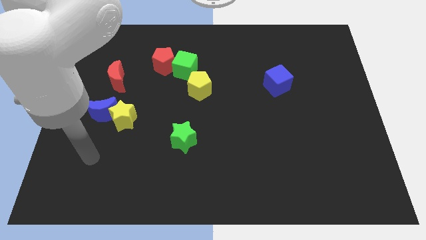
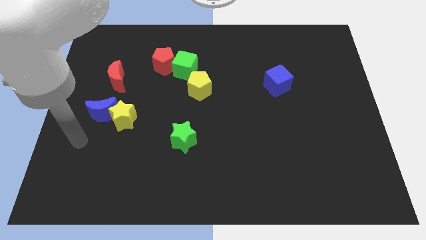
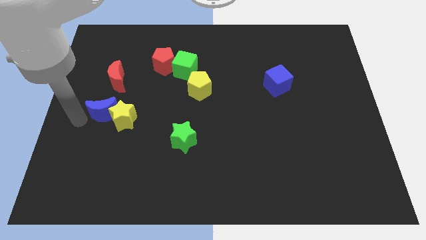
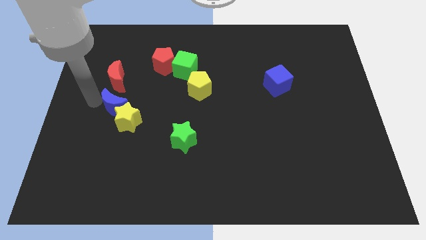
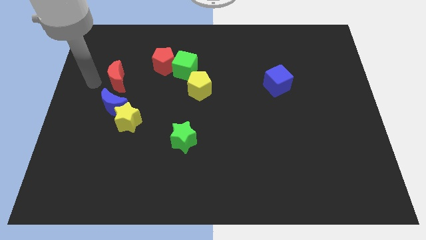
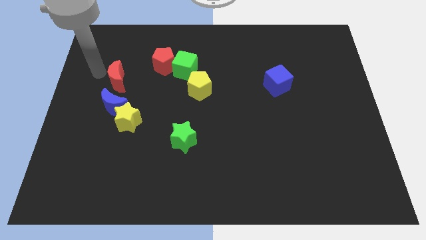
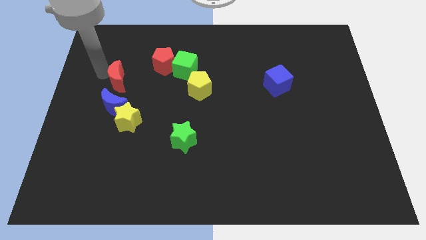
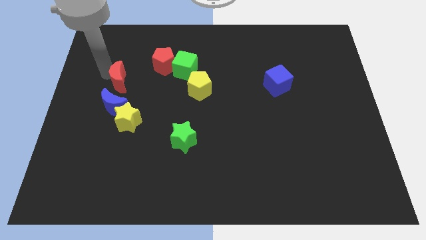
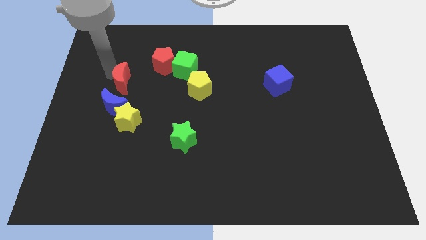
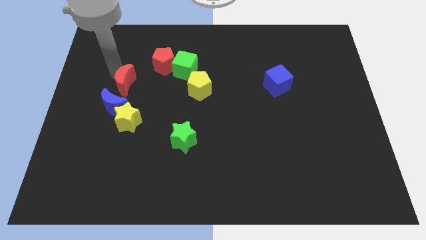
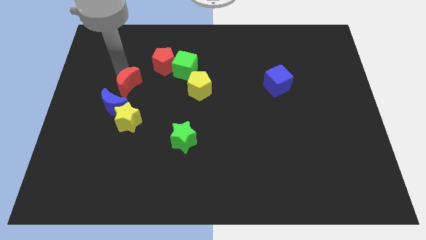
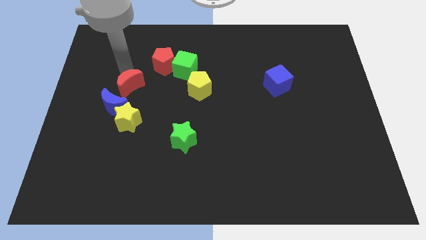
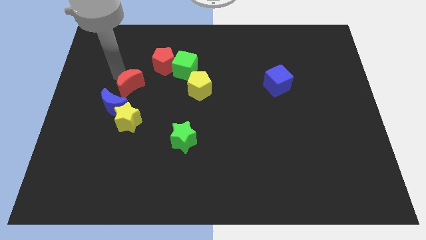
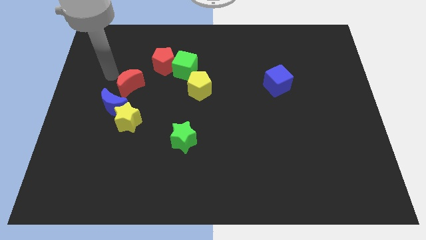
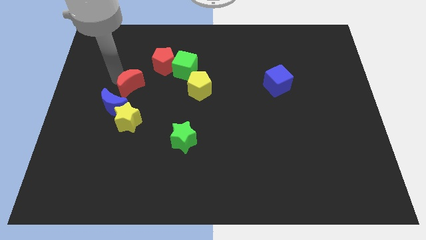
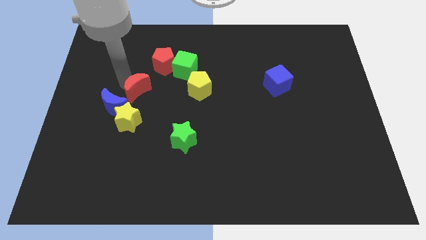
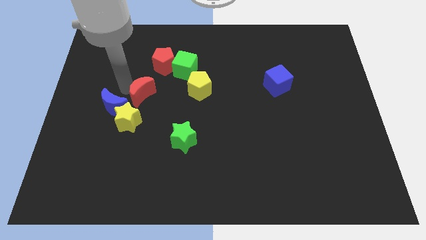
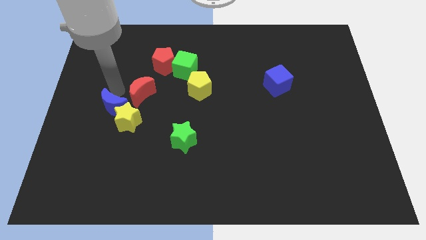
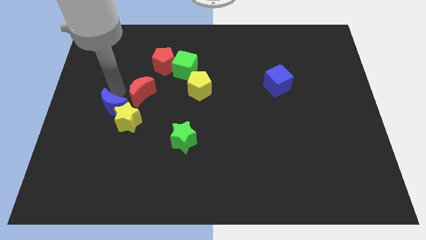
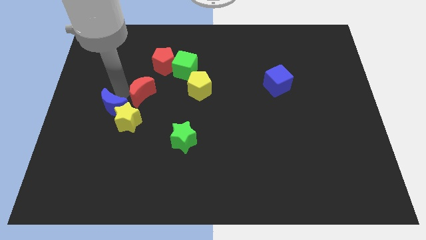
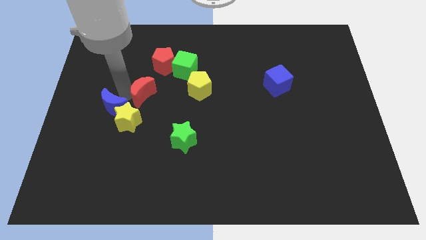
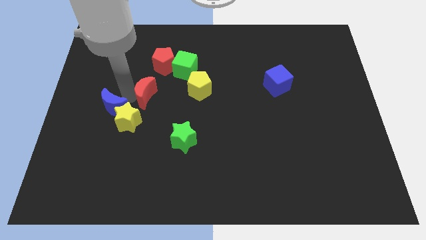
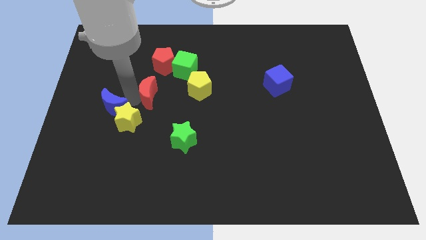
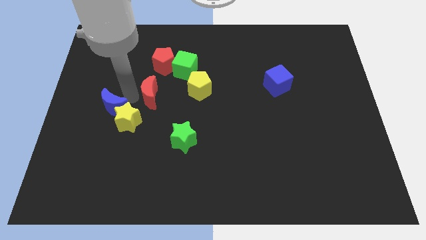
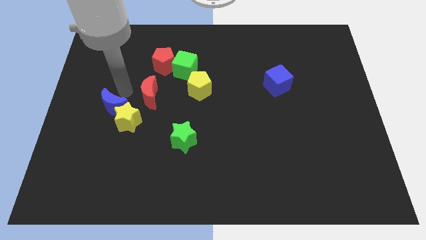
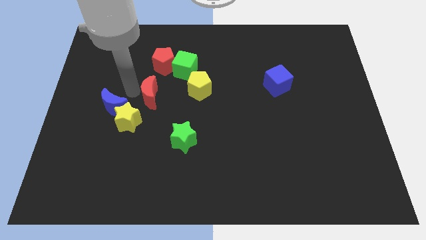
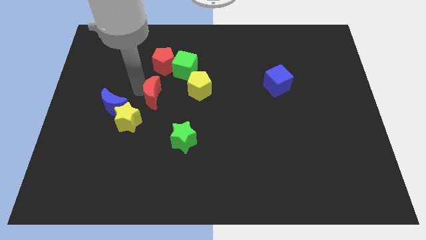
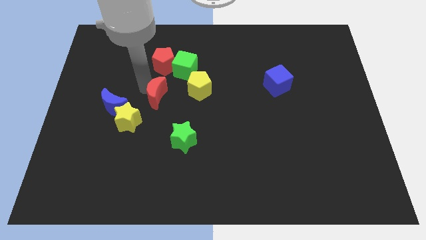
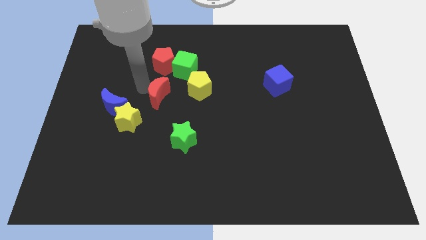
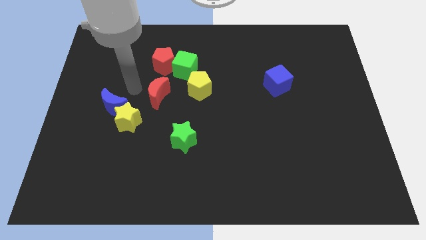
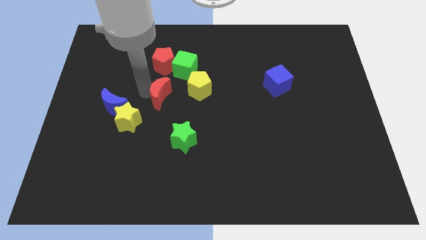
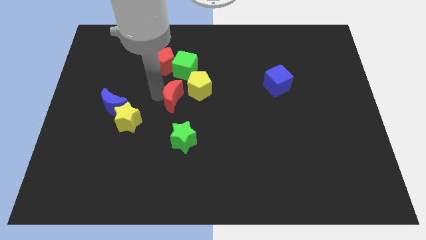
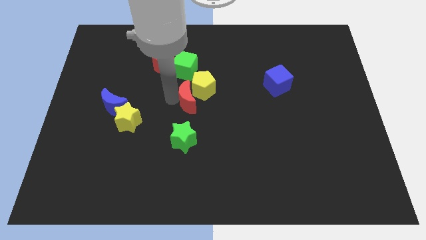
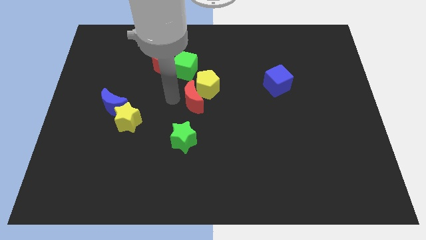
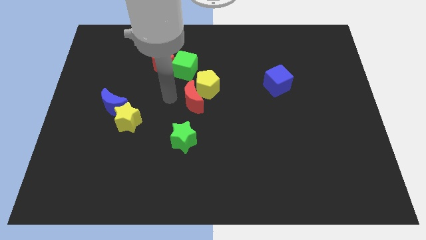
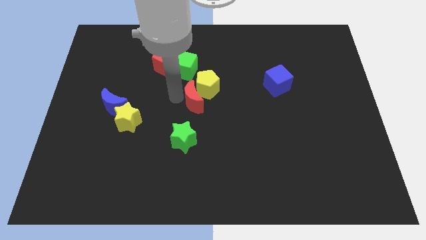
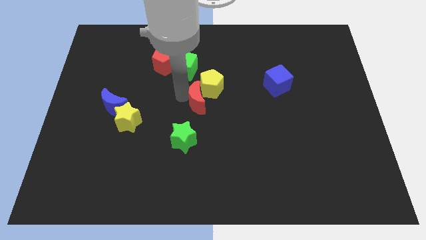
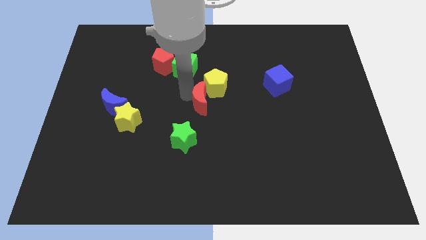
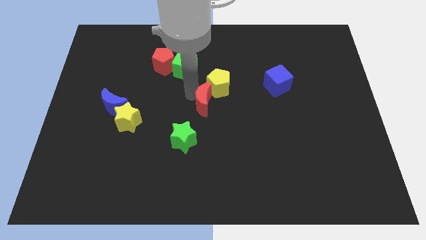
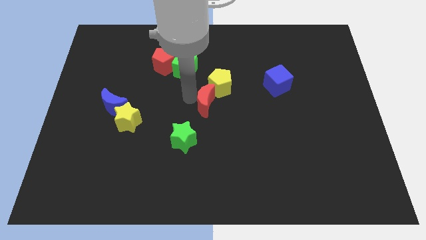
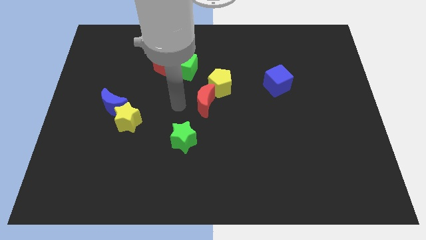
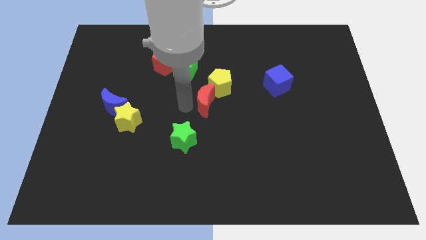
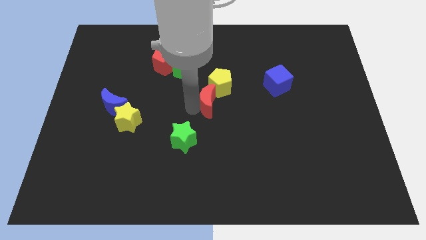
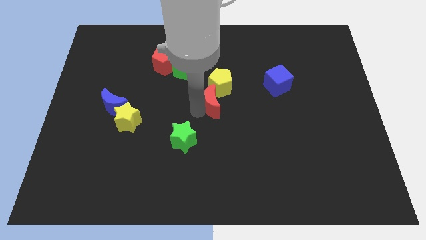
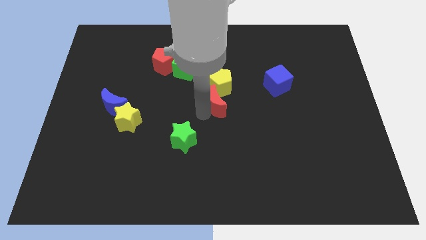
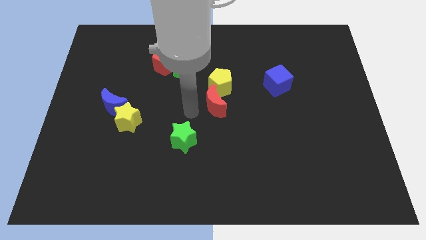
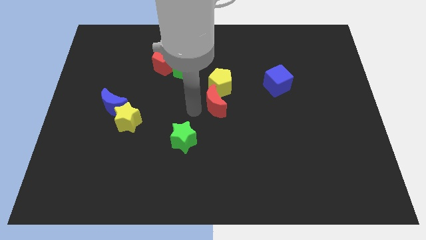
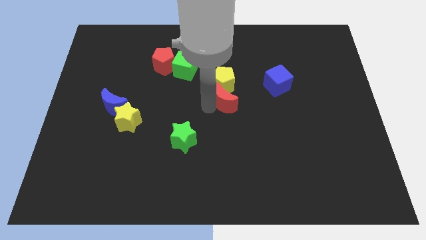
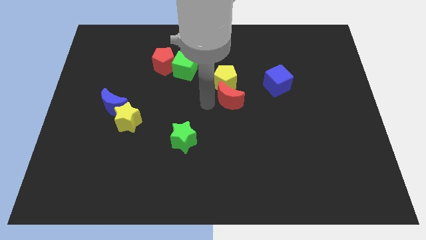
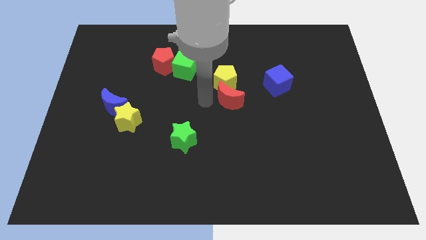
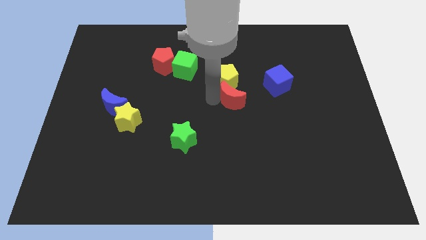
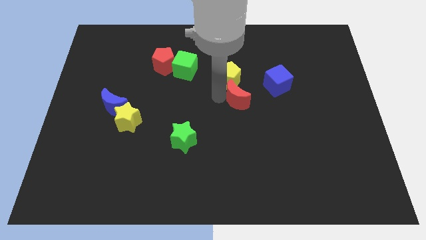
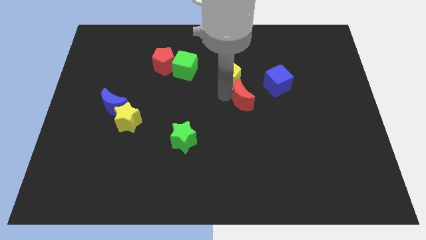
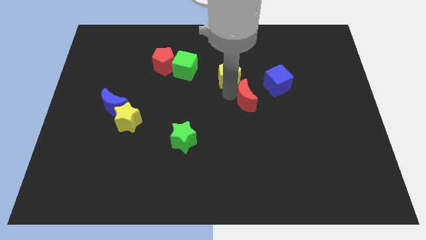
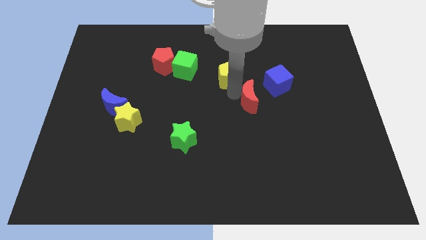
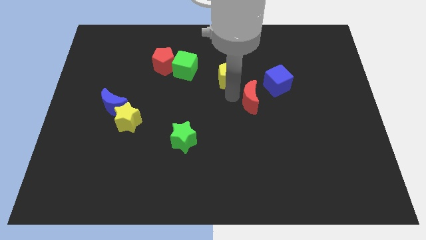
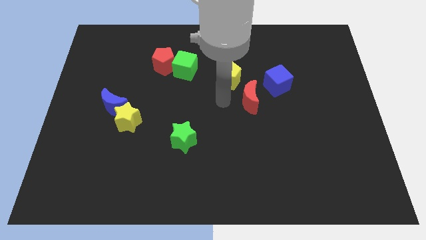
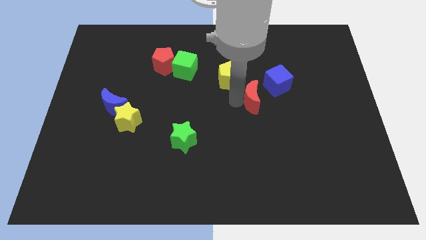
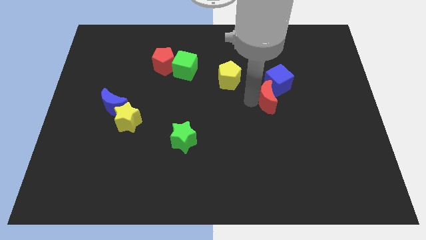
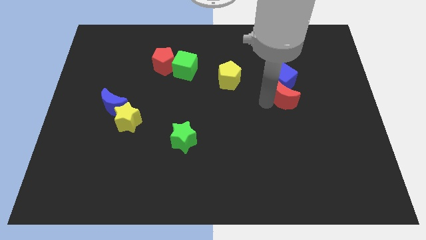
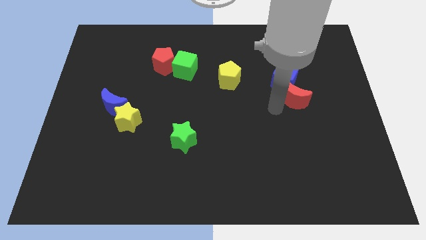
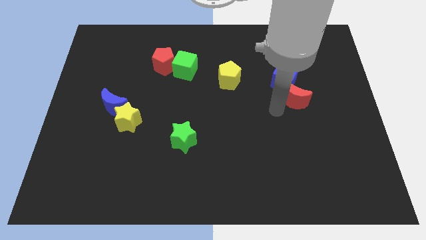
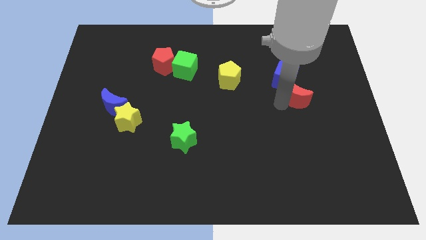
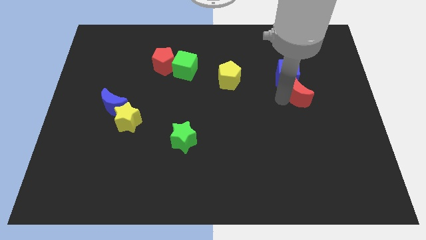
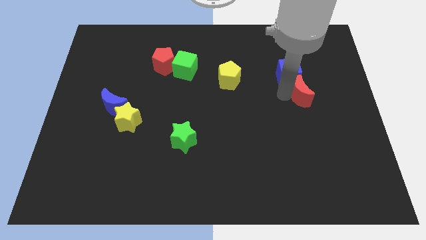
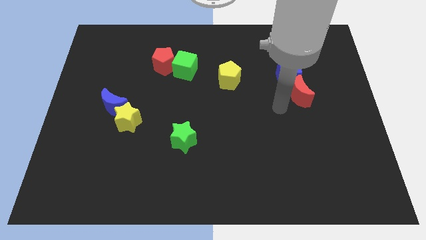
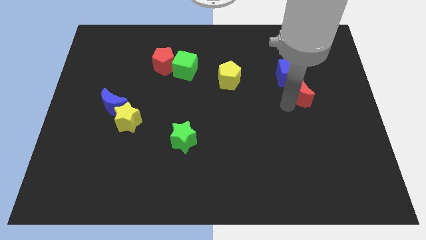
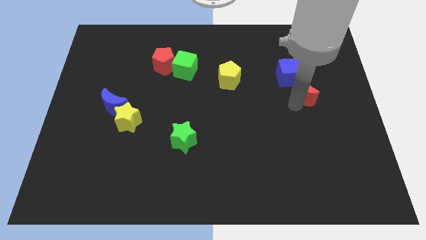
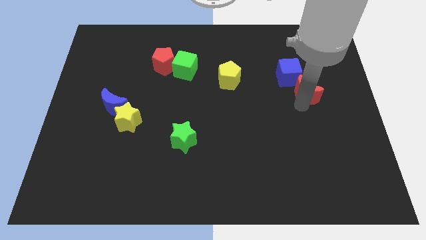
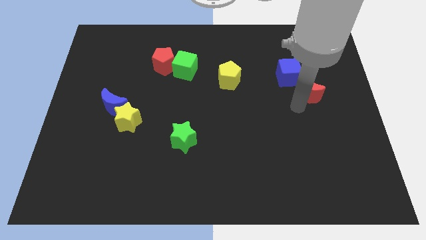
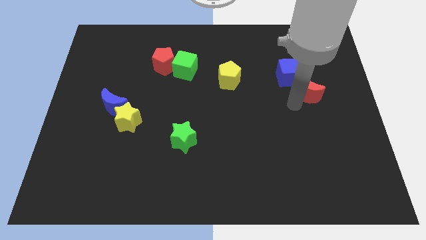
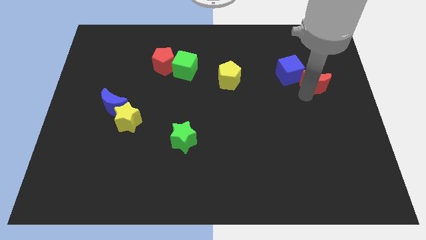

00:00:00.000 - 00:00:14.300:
put the red moon right of the blue cube

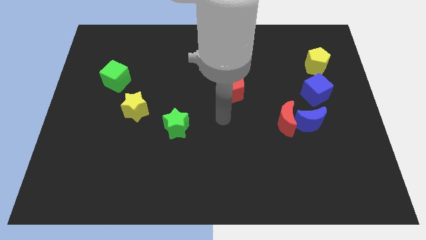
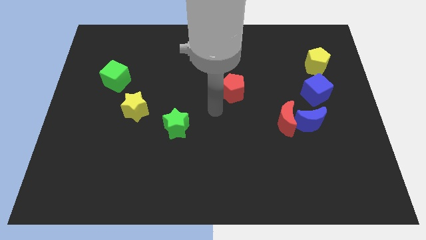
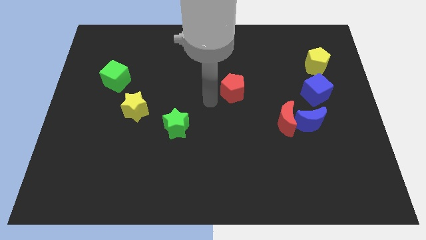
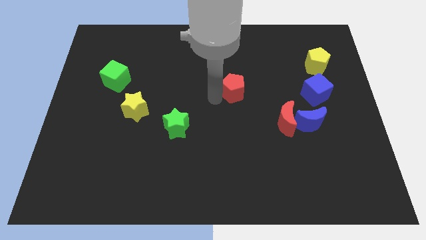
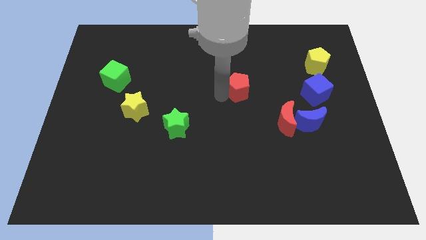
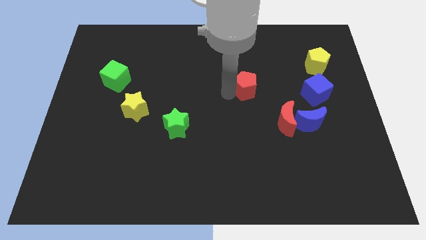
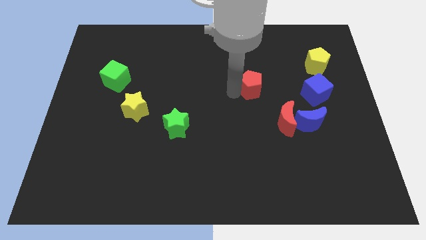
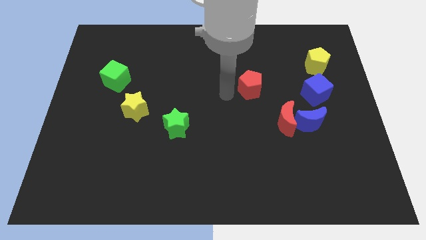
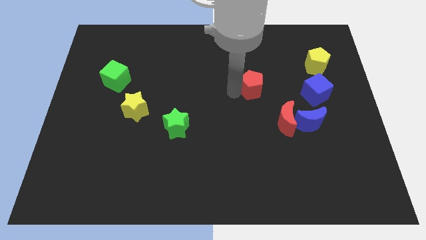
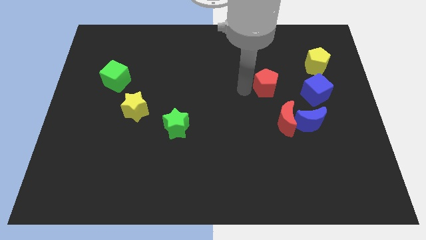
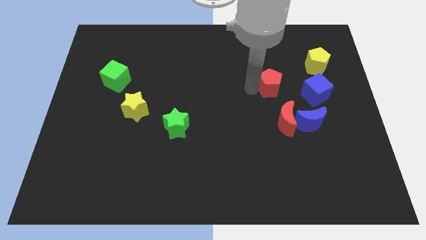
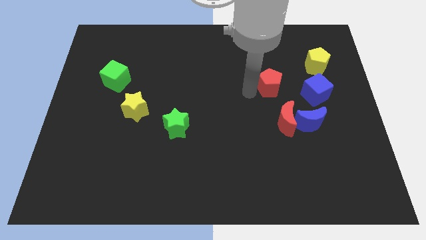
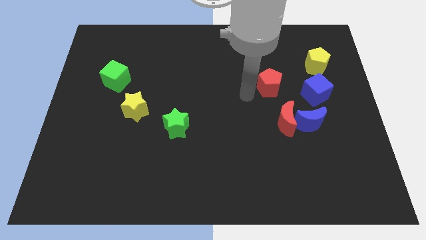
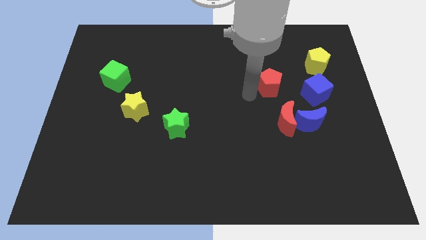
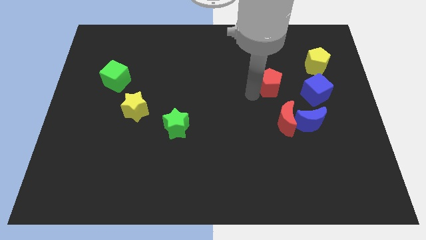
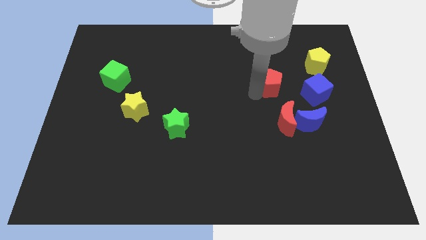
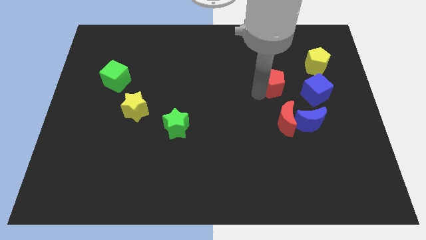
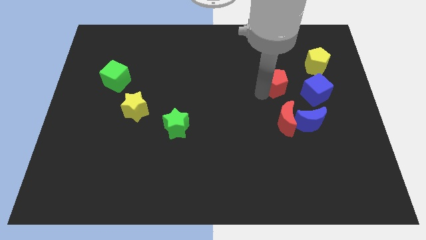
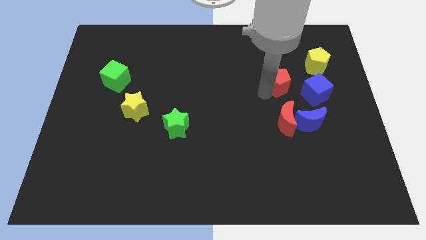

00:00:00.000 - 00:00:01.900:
push the red pentagon to the top left side of the blue cube
